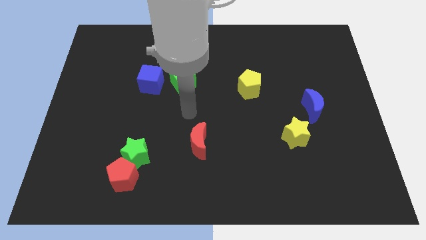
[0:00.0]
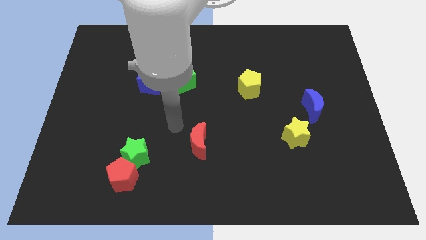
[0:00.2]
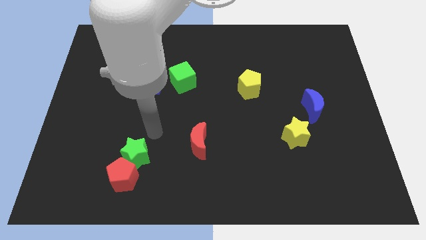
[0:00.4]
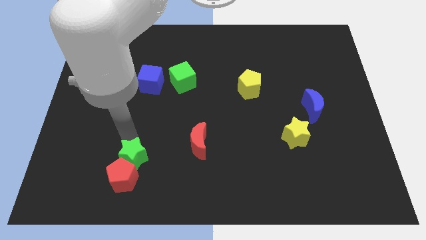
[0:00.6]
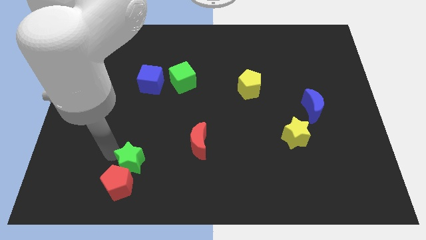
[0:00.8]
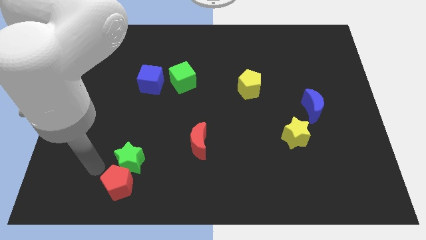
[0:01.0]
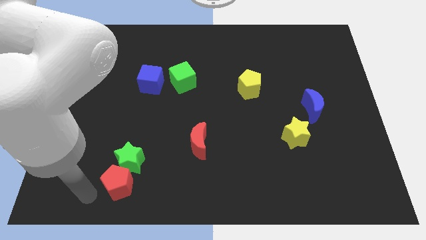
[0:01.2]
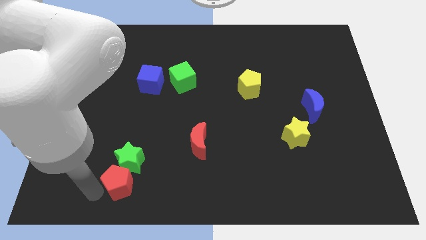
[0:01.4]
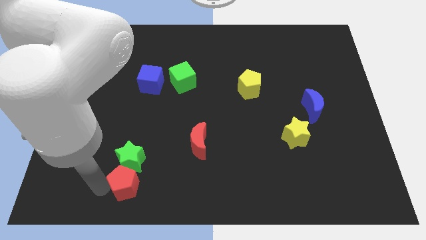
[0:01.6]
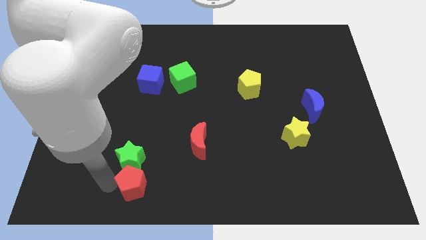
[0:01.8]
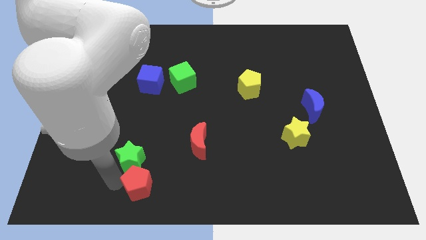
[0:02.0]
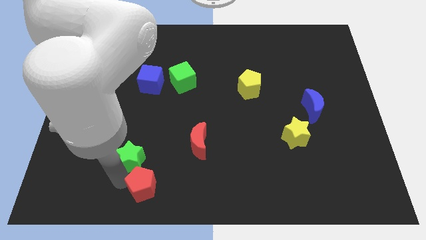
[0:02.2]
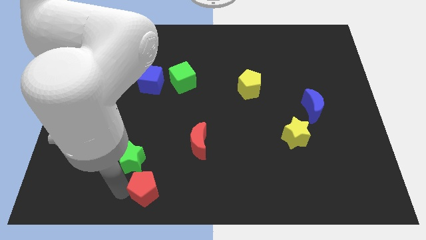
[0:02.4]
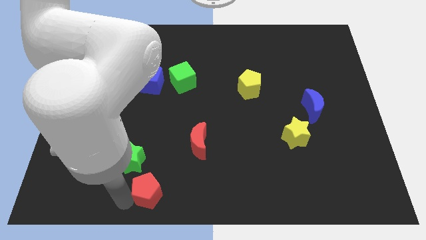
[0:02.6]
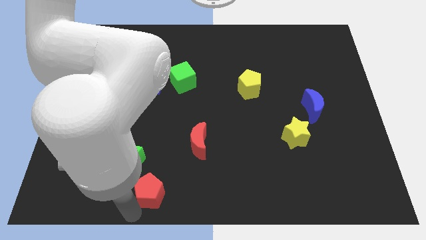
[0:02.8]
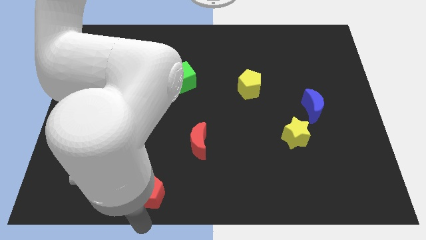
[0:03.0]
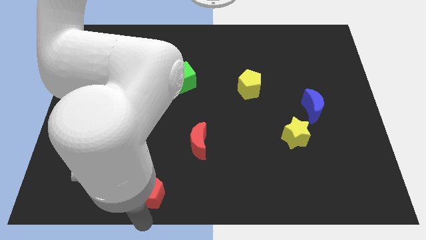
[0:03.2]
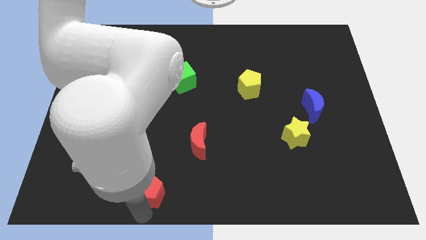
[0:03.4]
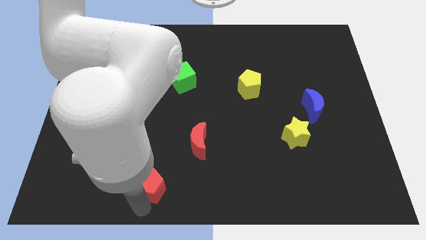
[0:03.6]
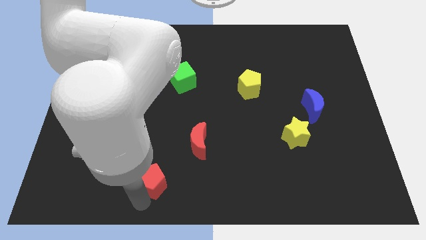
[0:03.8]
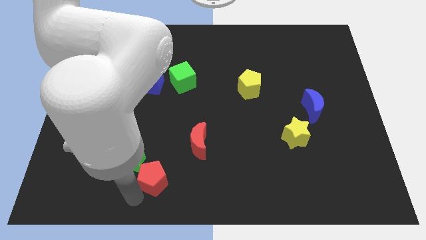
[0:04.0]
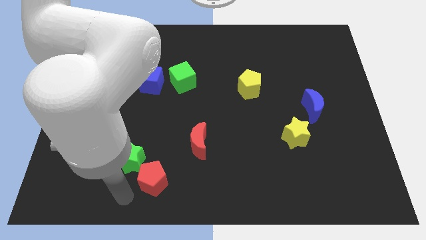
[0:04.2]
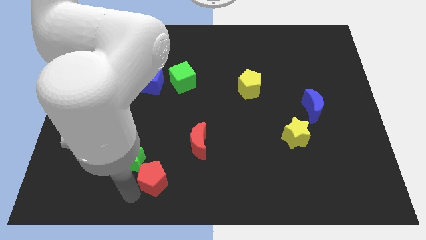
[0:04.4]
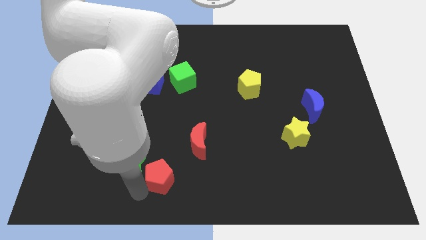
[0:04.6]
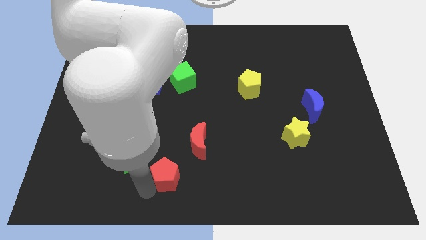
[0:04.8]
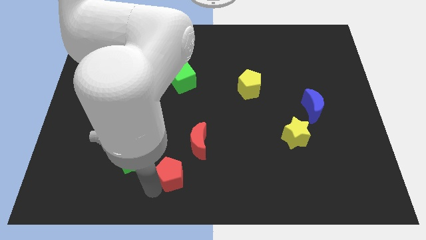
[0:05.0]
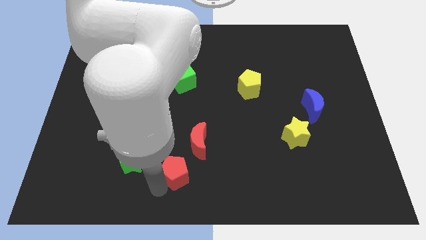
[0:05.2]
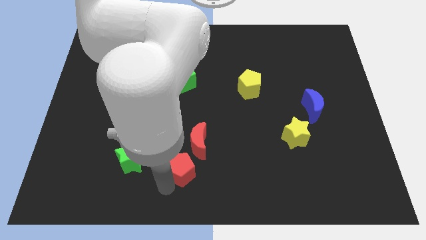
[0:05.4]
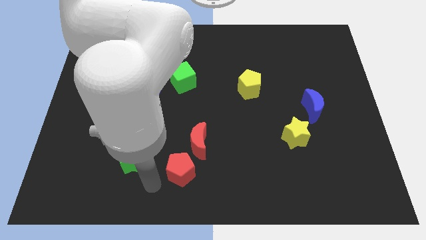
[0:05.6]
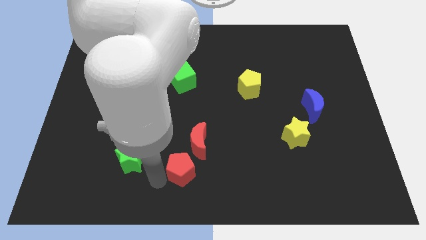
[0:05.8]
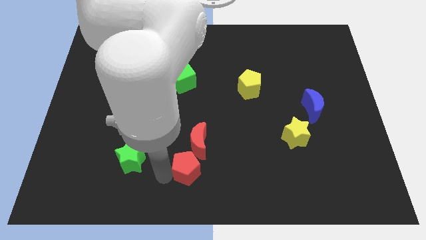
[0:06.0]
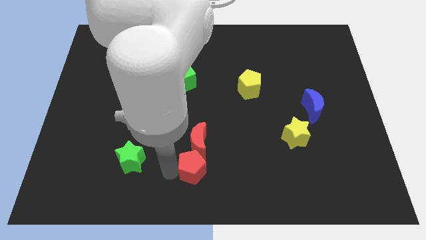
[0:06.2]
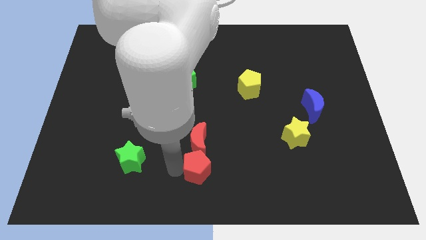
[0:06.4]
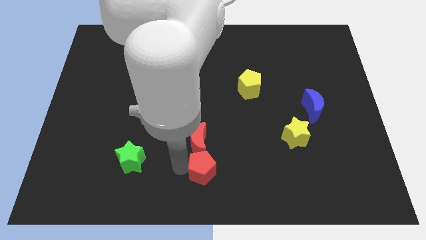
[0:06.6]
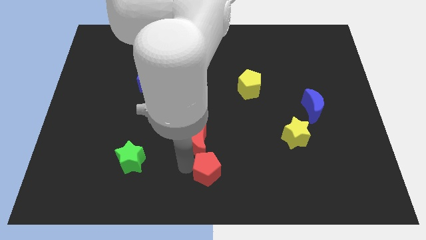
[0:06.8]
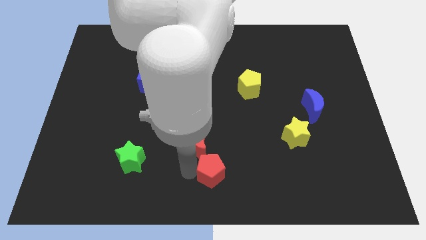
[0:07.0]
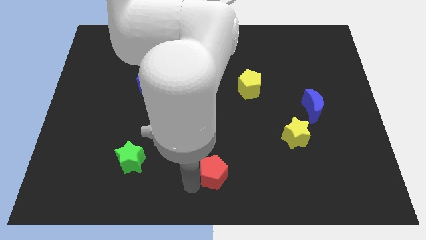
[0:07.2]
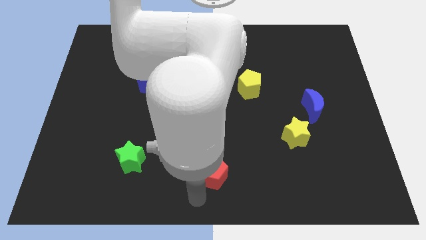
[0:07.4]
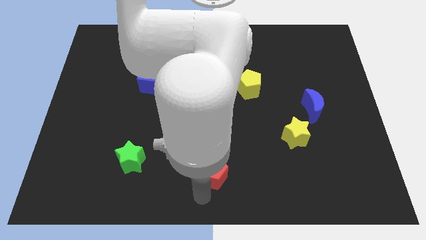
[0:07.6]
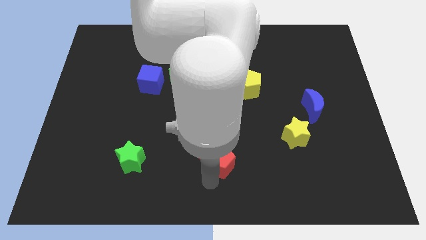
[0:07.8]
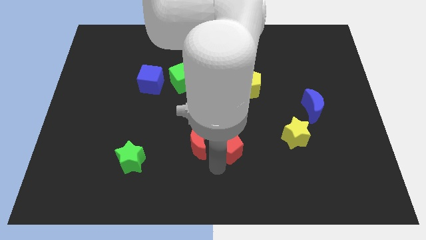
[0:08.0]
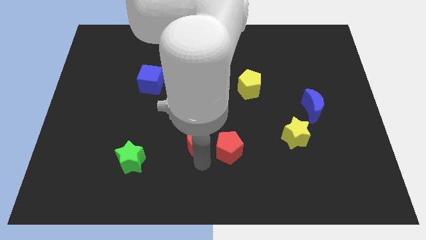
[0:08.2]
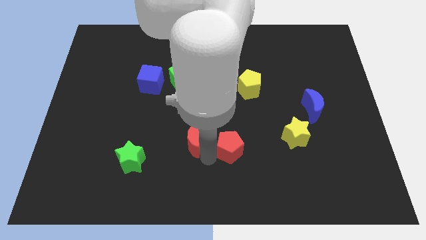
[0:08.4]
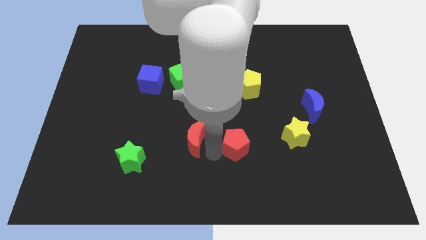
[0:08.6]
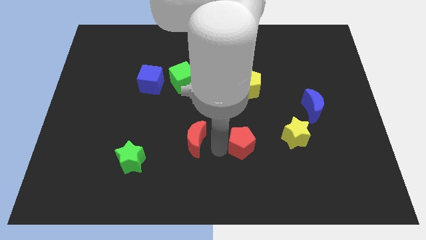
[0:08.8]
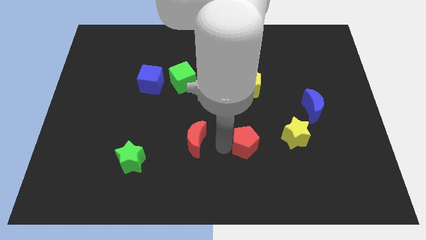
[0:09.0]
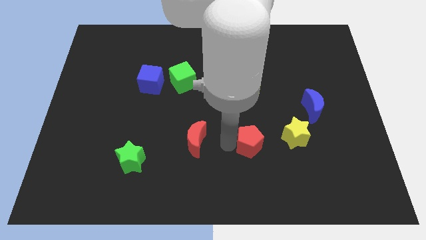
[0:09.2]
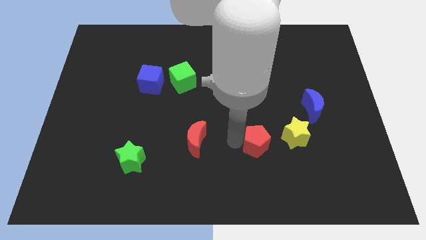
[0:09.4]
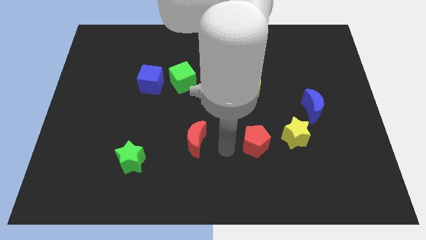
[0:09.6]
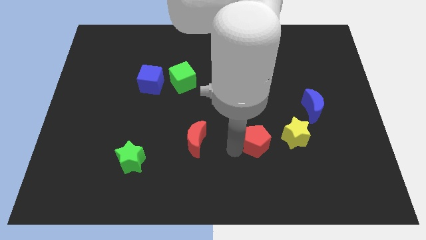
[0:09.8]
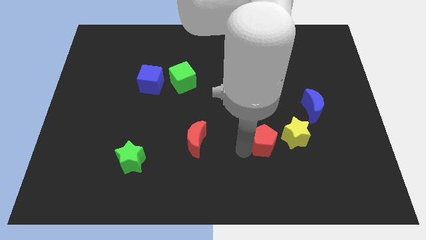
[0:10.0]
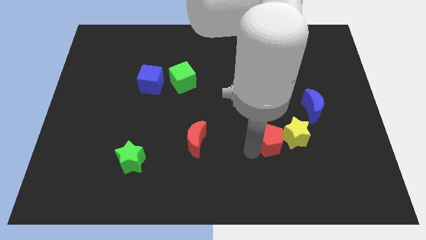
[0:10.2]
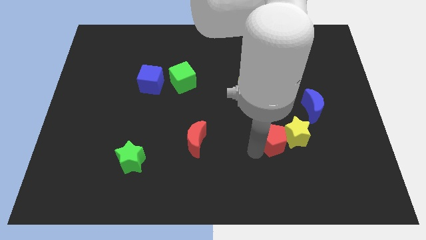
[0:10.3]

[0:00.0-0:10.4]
push the red pentagon towards the yellow star

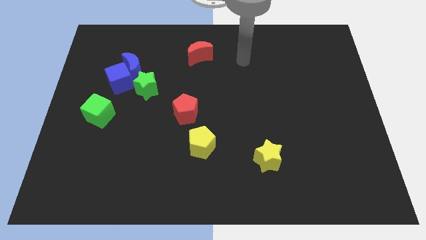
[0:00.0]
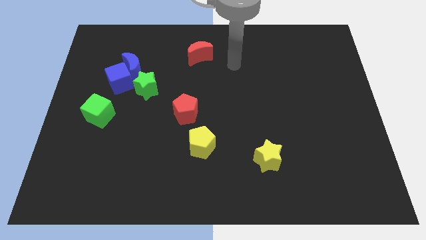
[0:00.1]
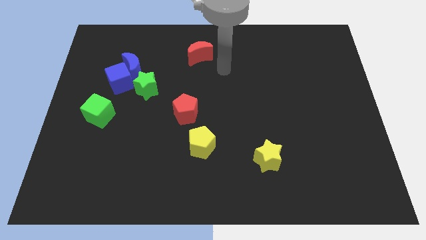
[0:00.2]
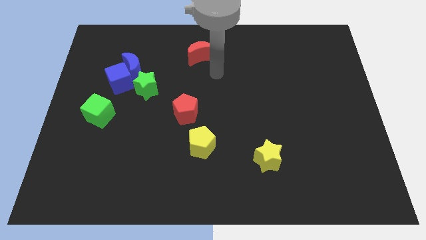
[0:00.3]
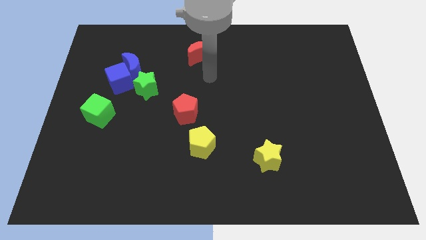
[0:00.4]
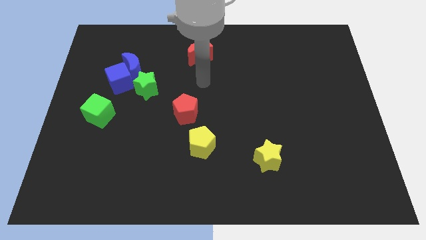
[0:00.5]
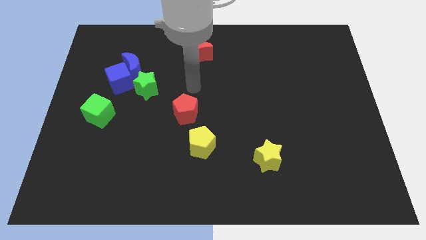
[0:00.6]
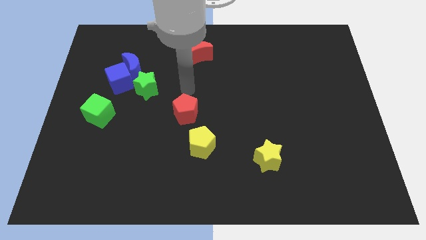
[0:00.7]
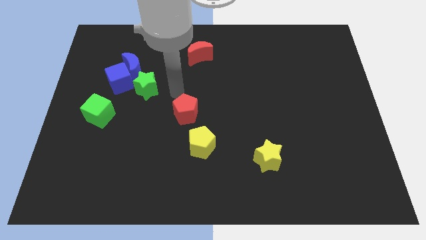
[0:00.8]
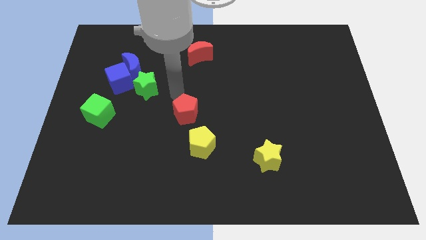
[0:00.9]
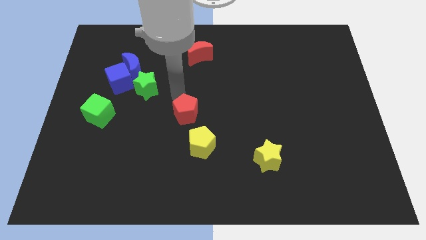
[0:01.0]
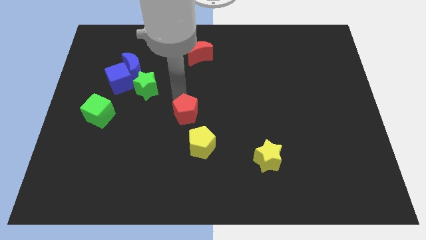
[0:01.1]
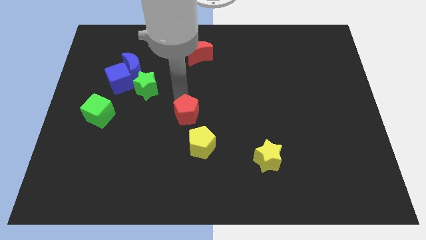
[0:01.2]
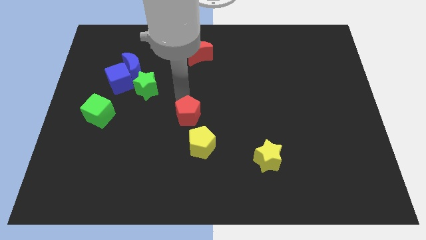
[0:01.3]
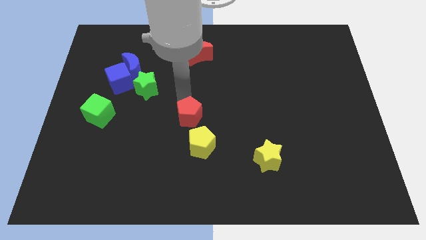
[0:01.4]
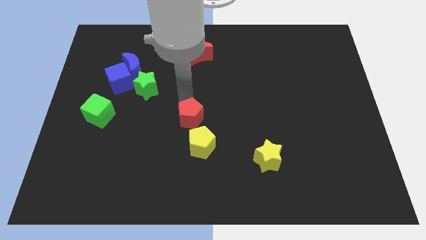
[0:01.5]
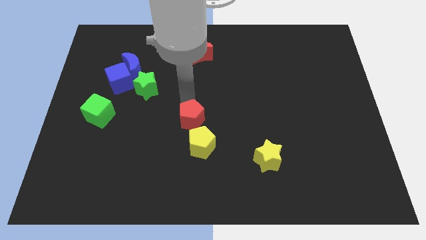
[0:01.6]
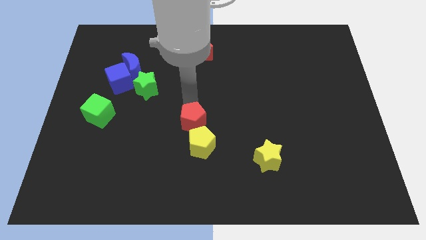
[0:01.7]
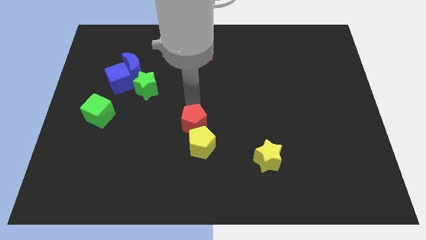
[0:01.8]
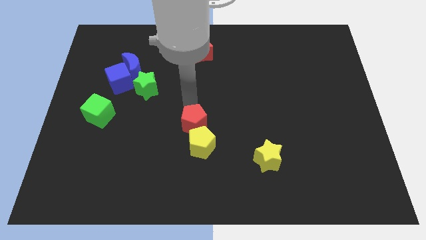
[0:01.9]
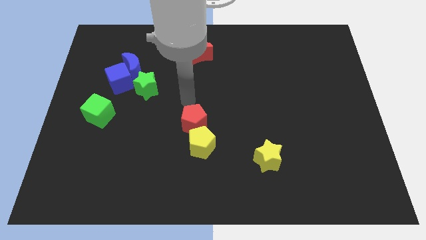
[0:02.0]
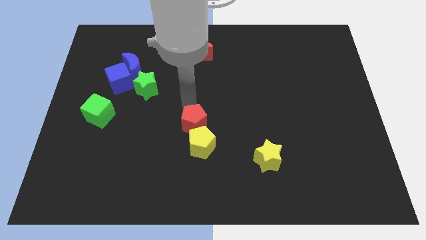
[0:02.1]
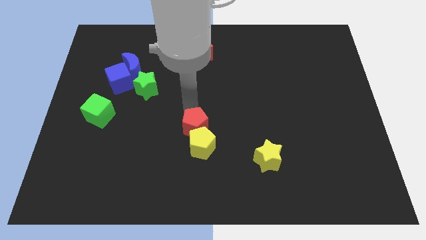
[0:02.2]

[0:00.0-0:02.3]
slide the red pentagon next to the yellow pentagon

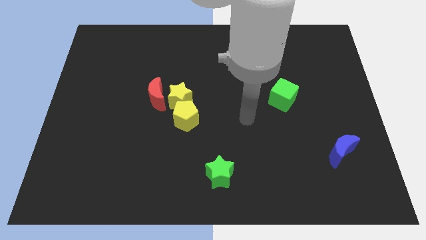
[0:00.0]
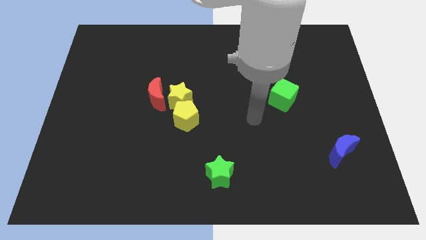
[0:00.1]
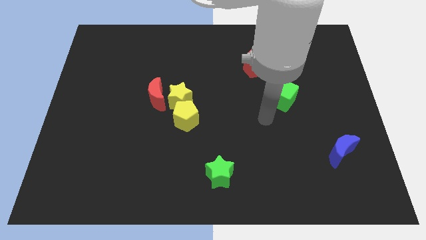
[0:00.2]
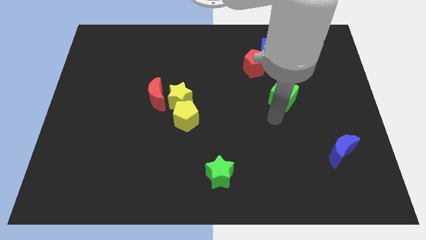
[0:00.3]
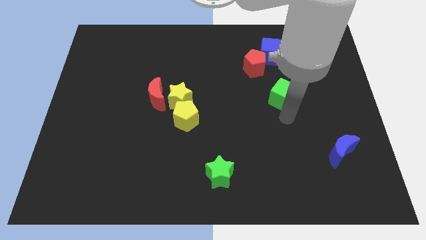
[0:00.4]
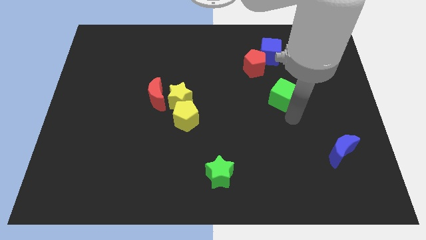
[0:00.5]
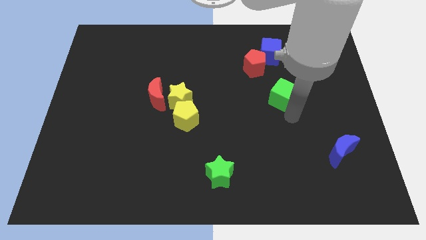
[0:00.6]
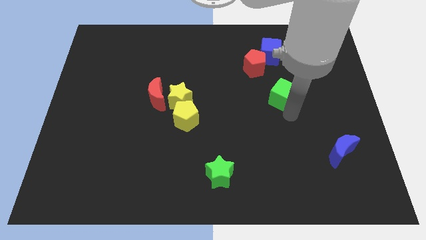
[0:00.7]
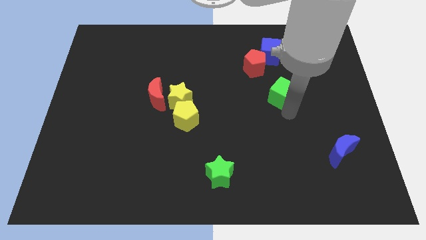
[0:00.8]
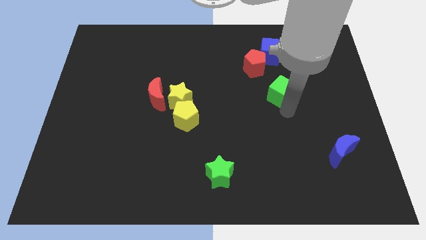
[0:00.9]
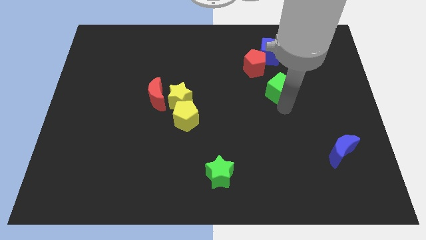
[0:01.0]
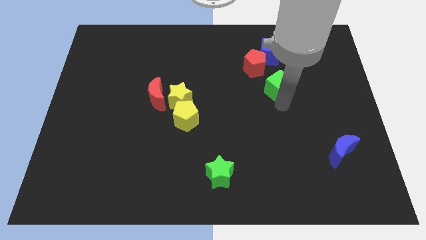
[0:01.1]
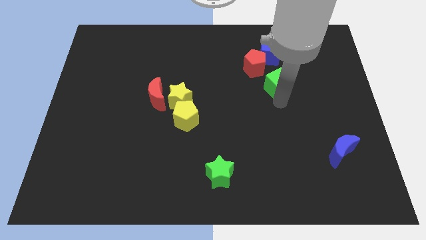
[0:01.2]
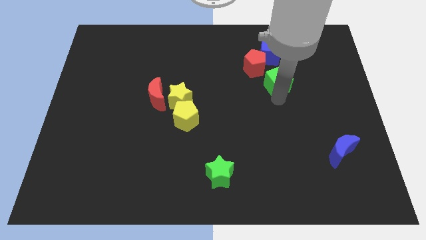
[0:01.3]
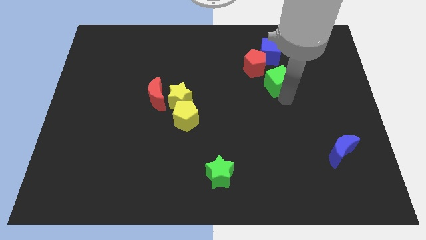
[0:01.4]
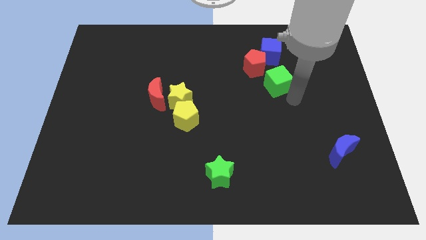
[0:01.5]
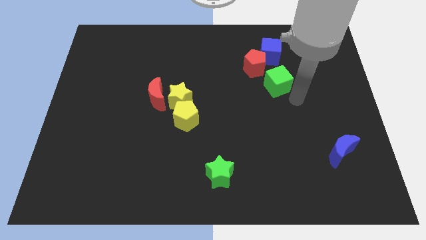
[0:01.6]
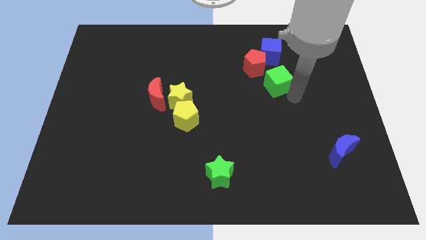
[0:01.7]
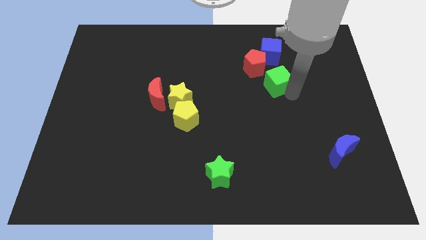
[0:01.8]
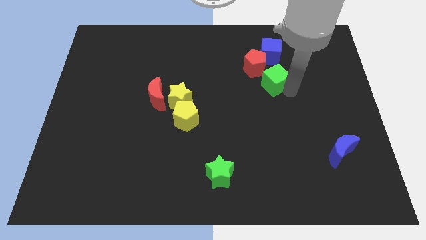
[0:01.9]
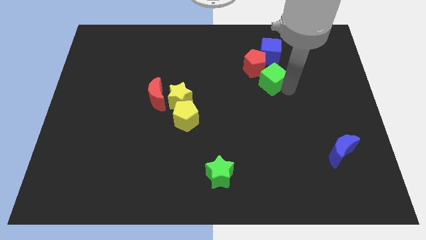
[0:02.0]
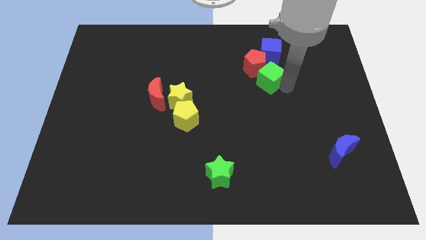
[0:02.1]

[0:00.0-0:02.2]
slide the green cube towards the red pentagon
